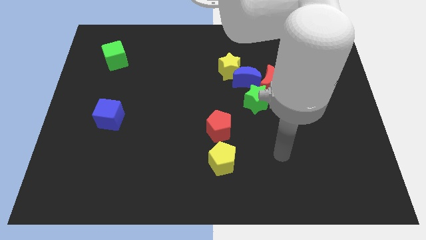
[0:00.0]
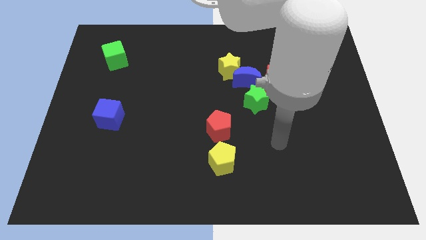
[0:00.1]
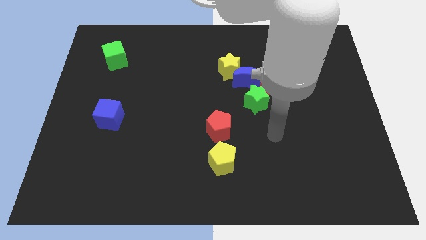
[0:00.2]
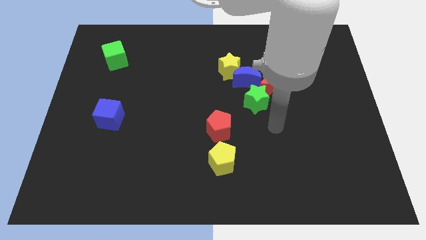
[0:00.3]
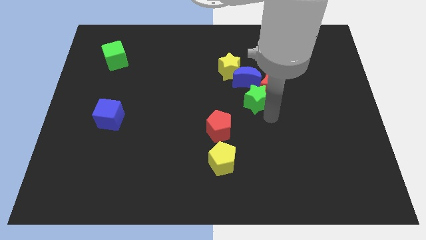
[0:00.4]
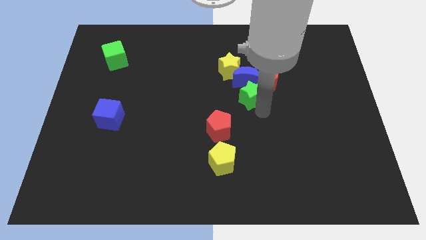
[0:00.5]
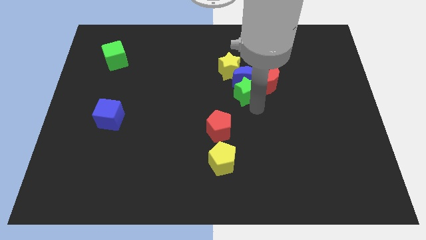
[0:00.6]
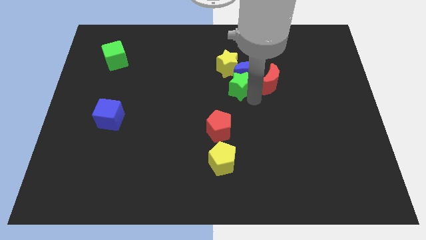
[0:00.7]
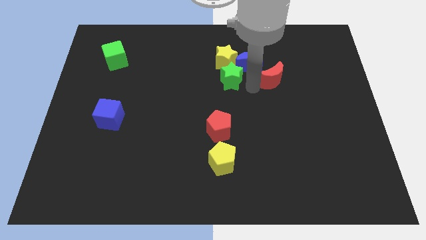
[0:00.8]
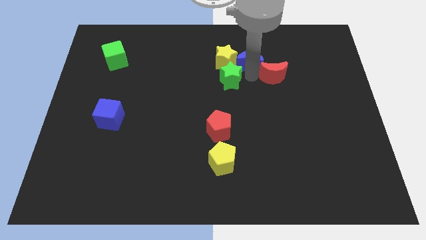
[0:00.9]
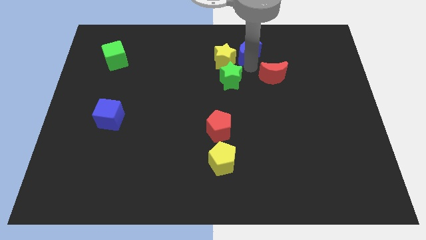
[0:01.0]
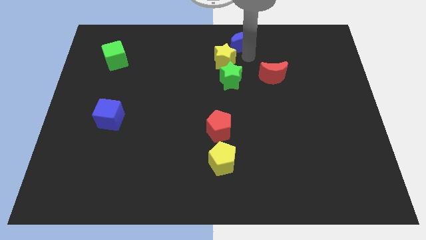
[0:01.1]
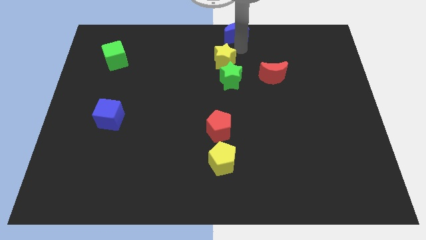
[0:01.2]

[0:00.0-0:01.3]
separate the yellow star from the blue moon

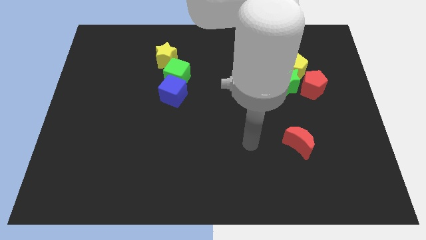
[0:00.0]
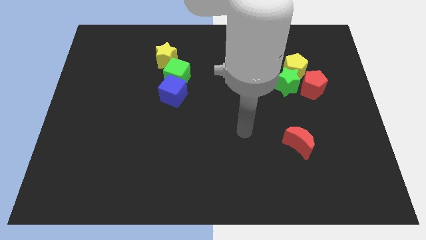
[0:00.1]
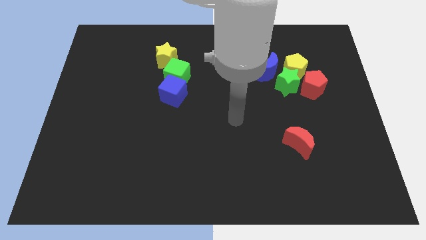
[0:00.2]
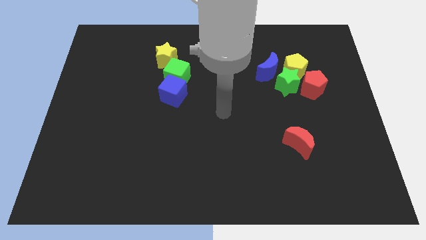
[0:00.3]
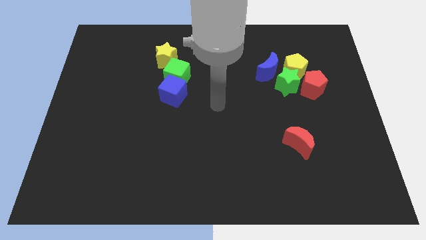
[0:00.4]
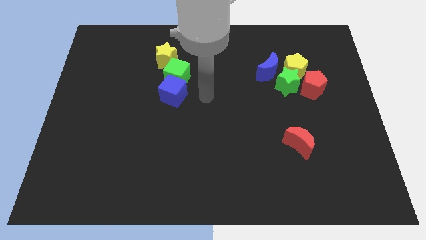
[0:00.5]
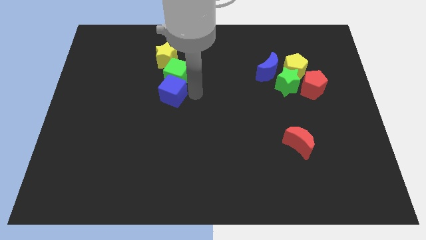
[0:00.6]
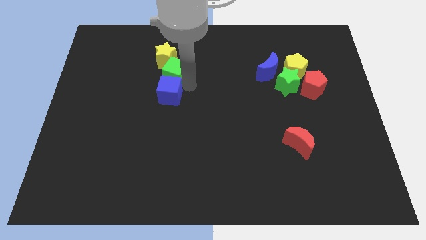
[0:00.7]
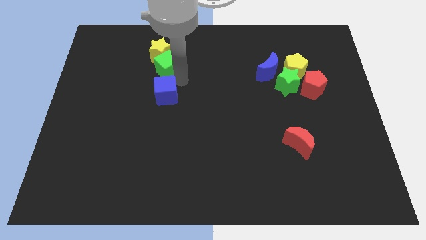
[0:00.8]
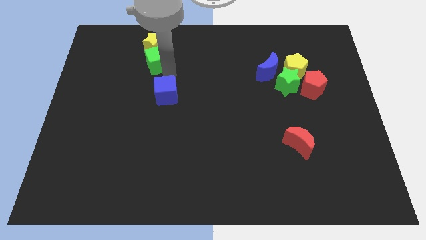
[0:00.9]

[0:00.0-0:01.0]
pull the blue cube apart from the green cube

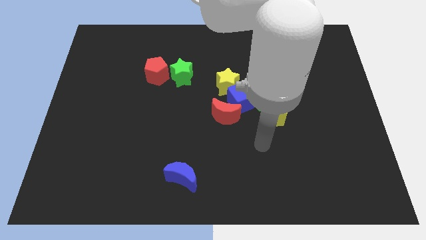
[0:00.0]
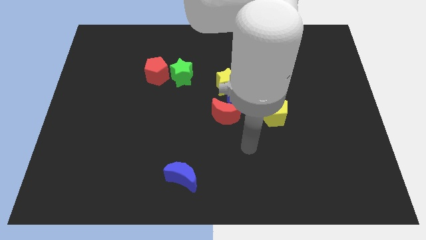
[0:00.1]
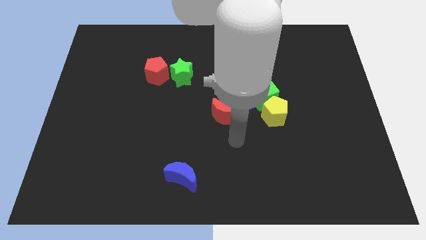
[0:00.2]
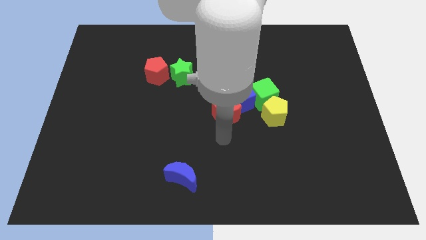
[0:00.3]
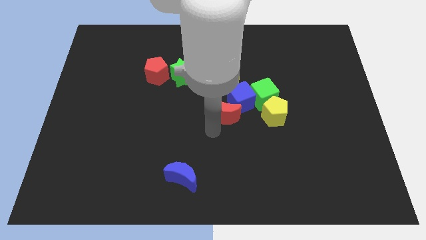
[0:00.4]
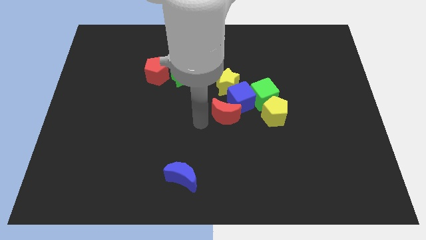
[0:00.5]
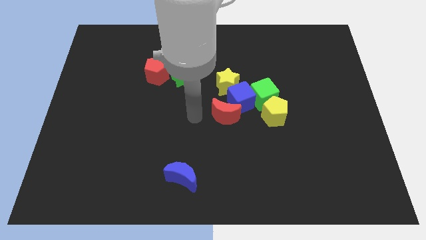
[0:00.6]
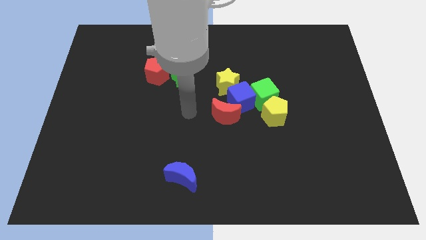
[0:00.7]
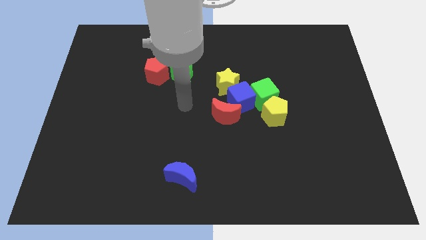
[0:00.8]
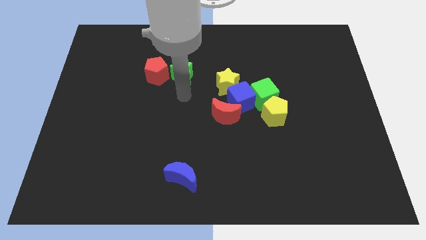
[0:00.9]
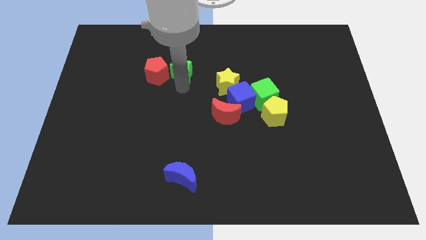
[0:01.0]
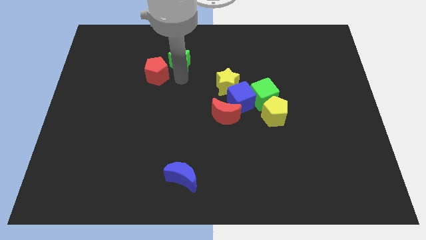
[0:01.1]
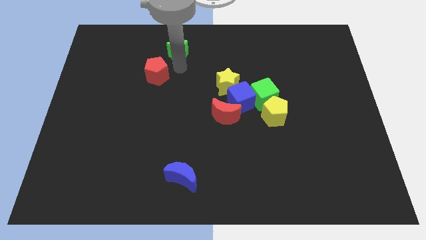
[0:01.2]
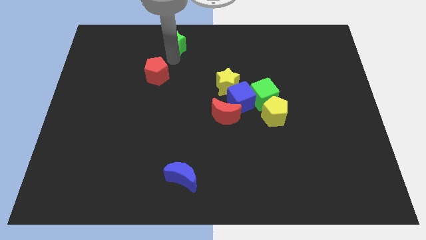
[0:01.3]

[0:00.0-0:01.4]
separate the red pentagon from the green star

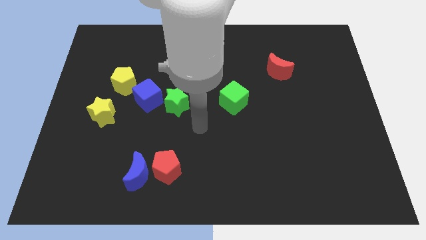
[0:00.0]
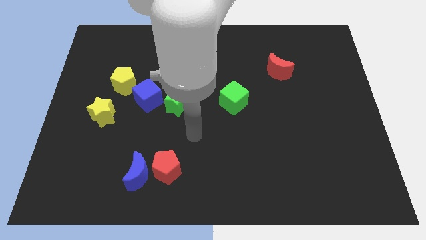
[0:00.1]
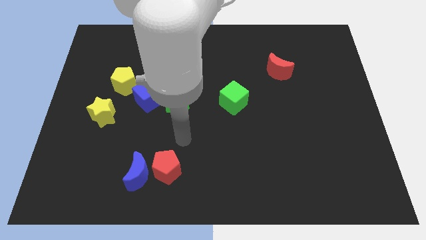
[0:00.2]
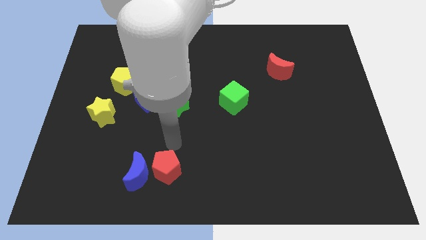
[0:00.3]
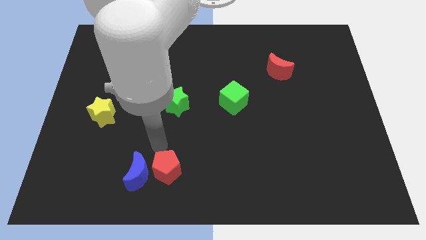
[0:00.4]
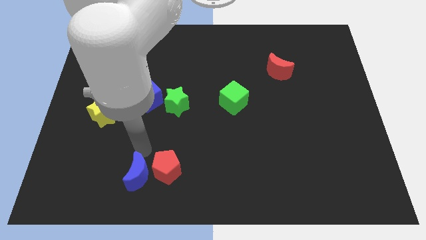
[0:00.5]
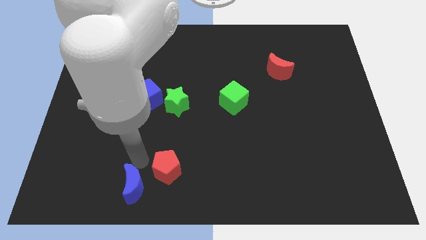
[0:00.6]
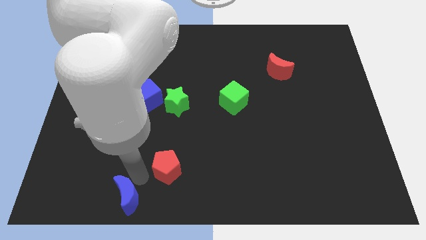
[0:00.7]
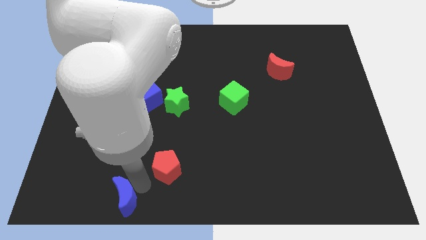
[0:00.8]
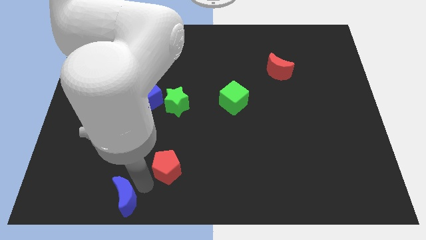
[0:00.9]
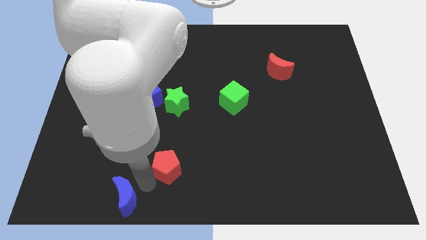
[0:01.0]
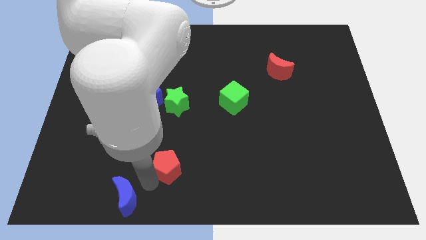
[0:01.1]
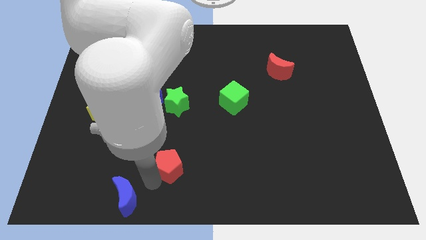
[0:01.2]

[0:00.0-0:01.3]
move the red pentagon away from the blue moon

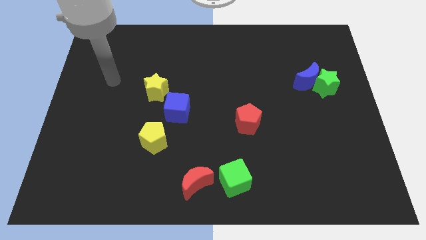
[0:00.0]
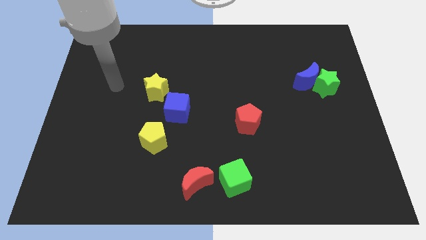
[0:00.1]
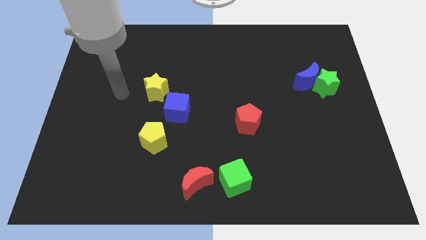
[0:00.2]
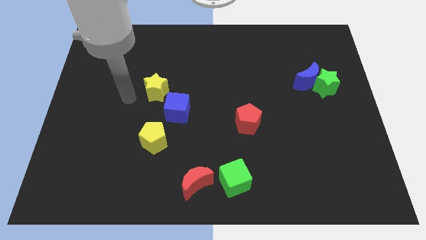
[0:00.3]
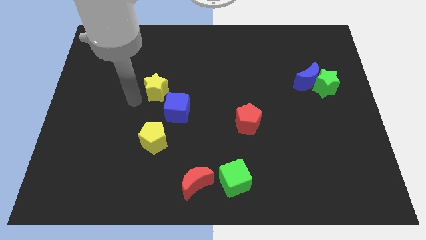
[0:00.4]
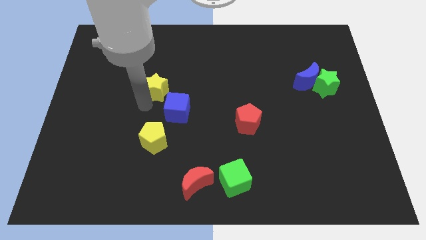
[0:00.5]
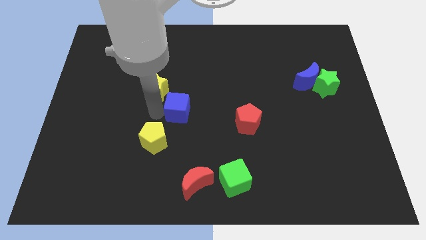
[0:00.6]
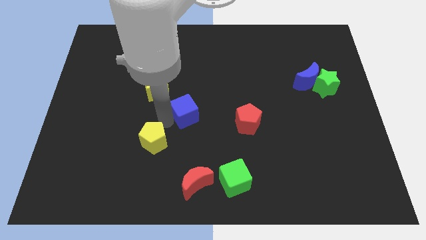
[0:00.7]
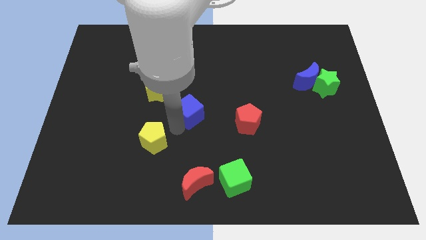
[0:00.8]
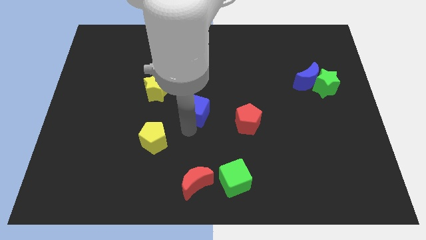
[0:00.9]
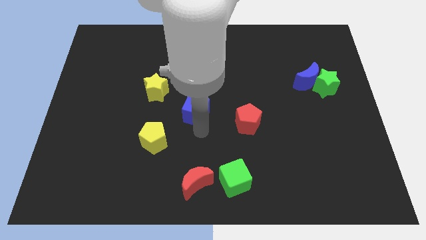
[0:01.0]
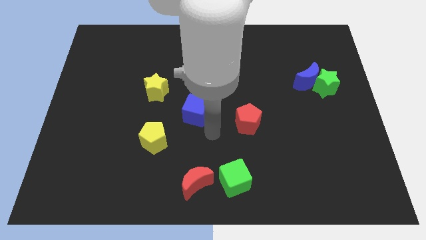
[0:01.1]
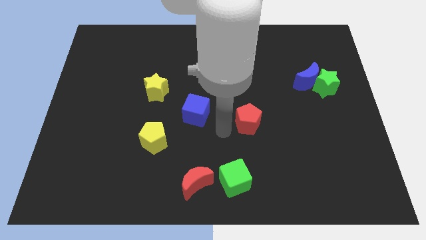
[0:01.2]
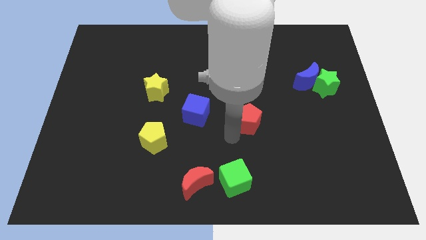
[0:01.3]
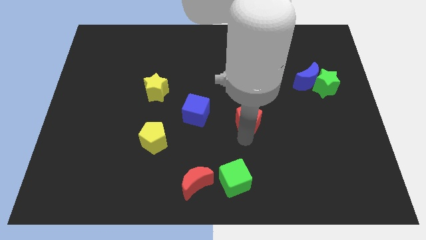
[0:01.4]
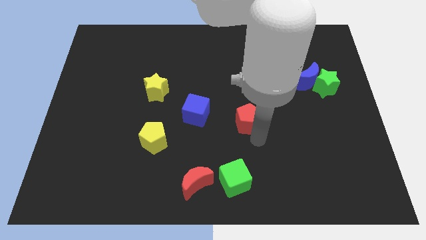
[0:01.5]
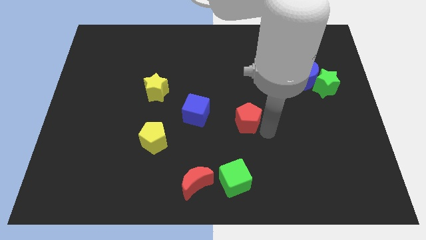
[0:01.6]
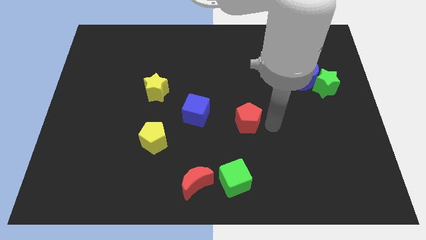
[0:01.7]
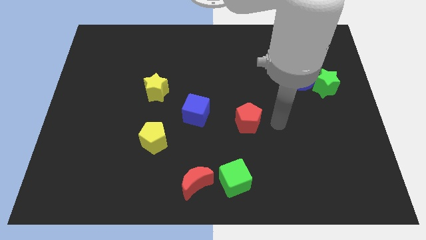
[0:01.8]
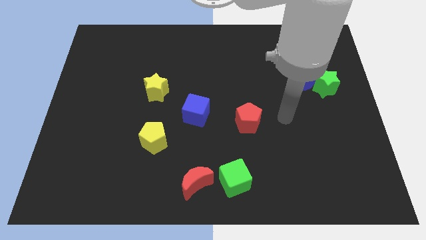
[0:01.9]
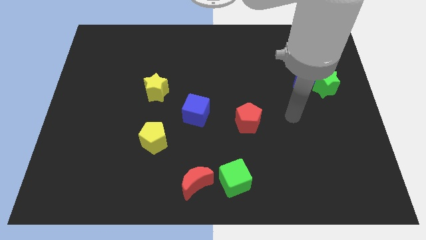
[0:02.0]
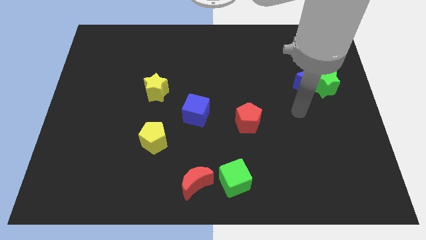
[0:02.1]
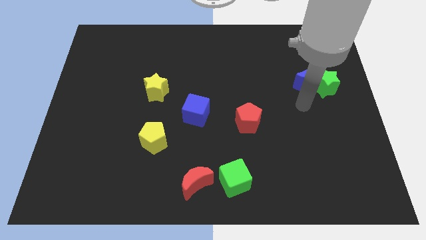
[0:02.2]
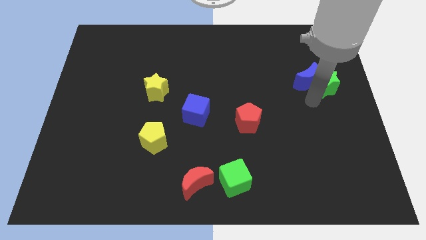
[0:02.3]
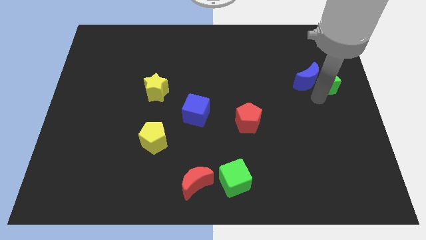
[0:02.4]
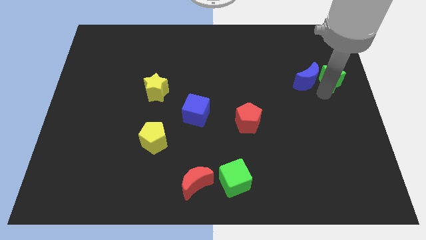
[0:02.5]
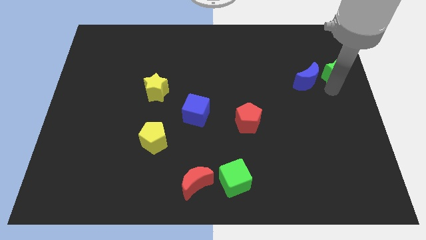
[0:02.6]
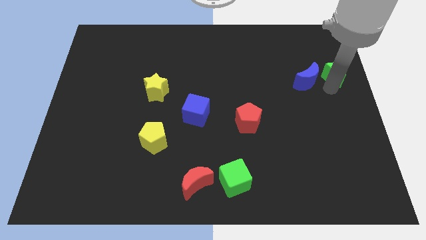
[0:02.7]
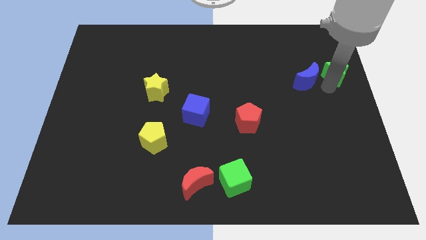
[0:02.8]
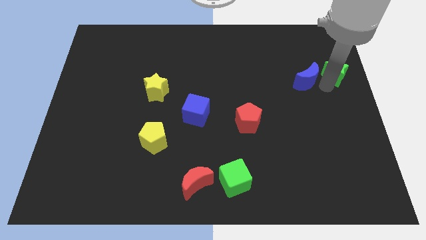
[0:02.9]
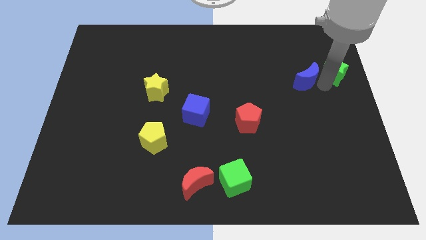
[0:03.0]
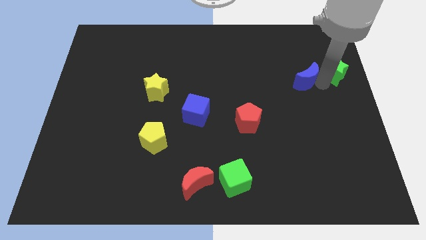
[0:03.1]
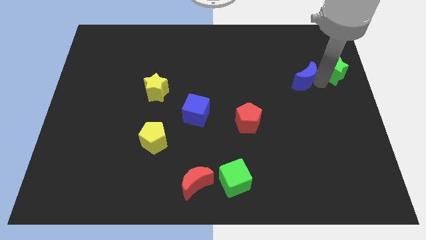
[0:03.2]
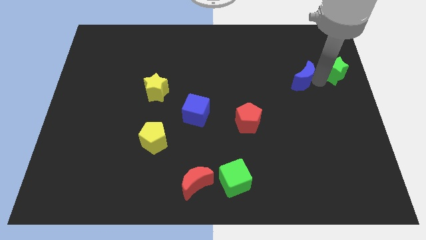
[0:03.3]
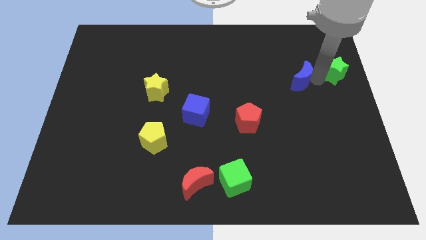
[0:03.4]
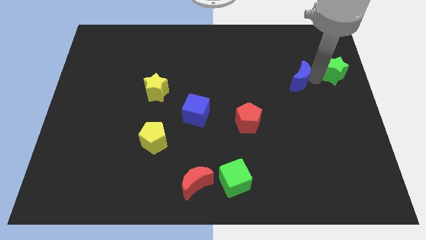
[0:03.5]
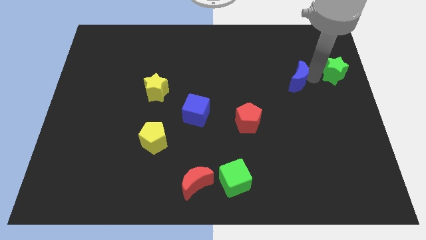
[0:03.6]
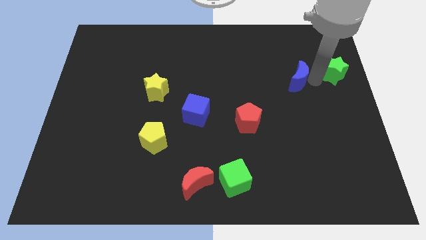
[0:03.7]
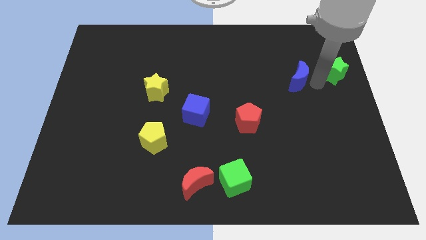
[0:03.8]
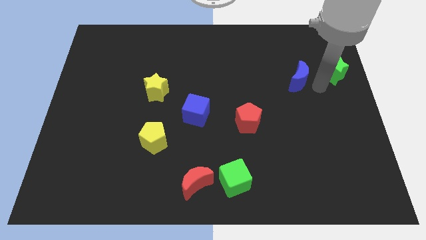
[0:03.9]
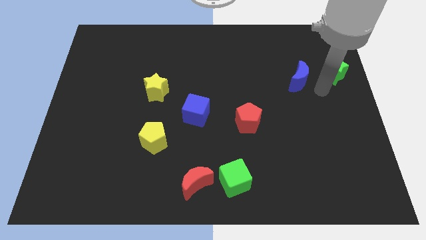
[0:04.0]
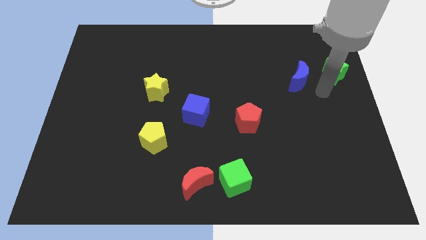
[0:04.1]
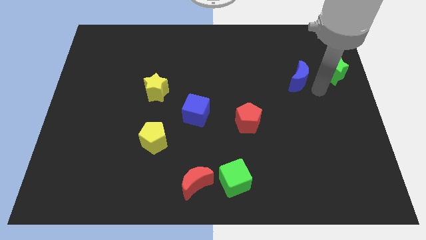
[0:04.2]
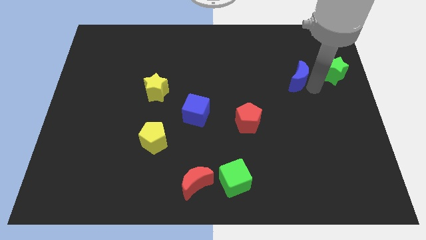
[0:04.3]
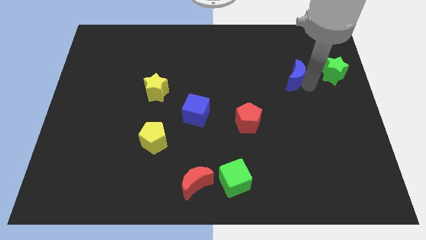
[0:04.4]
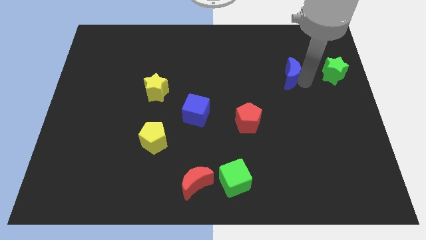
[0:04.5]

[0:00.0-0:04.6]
move the blue moon away from the green star
